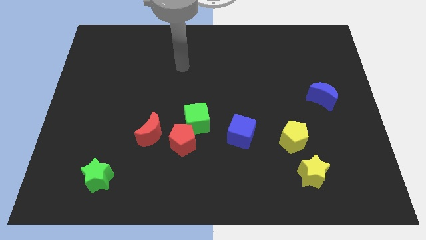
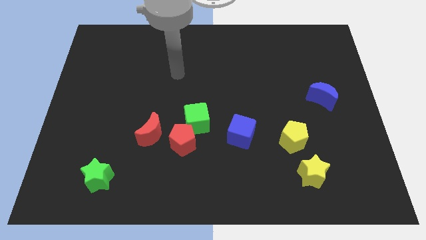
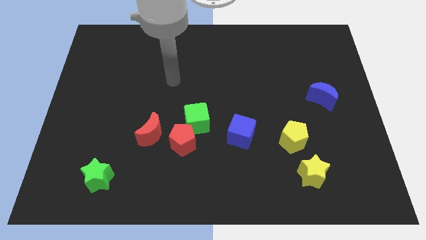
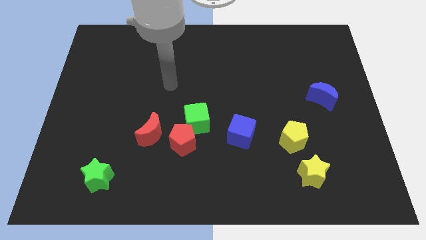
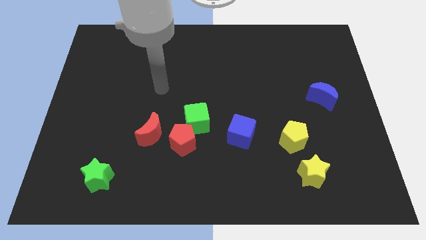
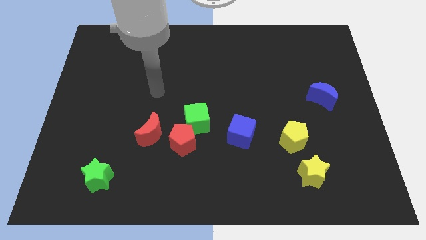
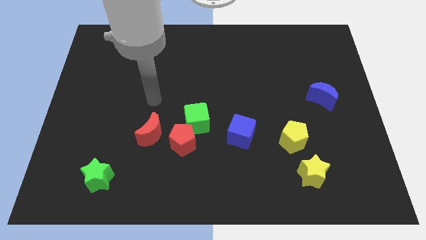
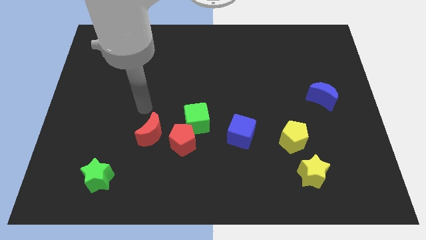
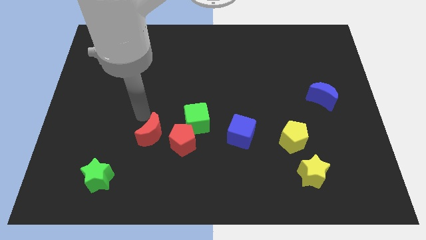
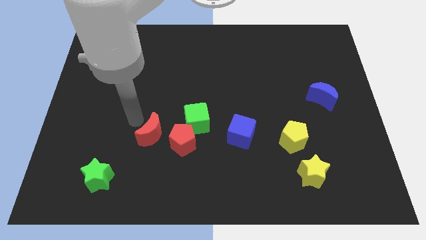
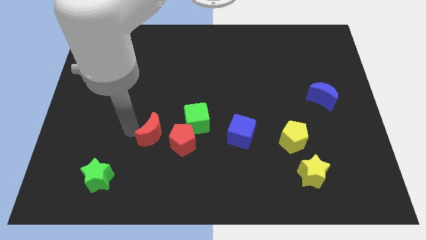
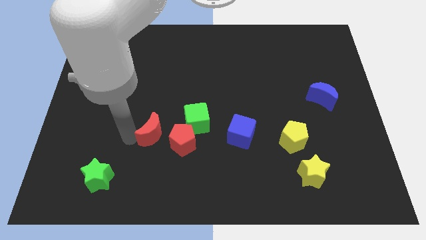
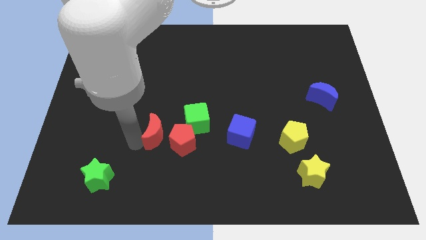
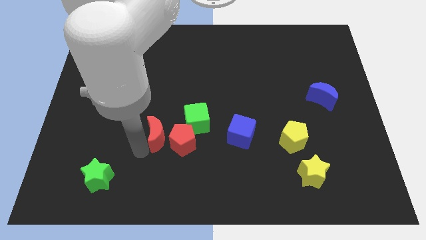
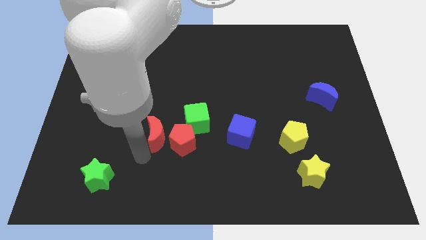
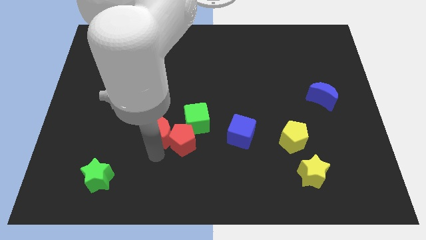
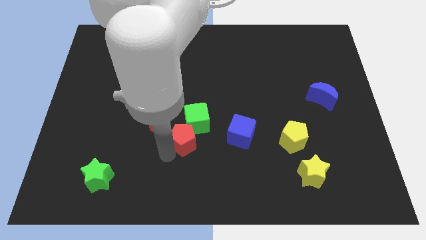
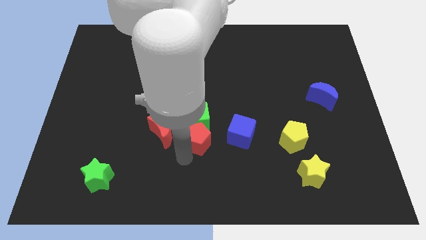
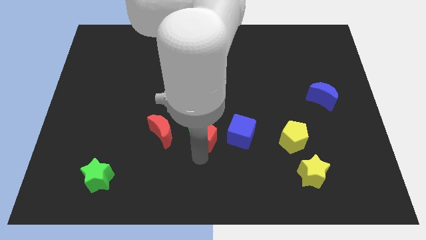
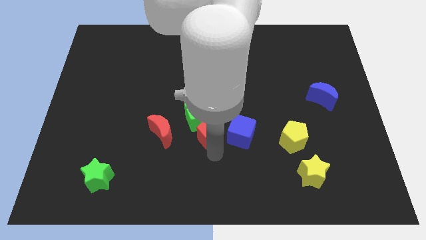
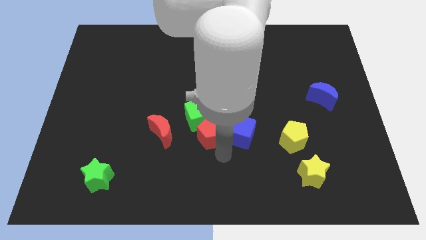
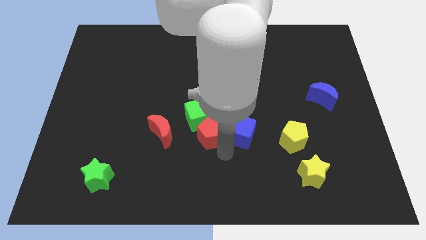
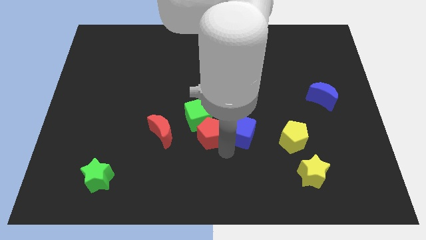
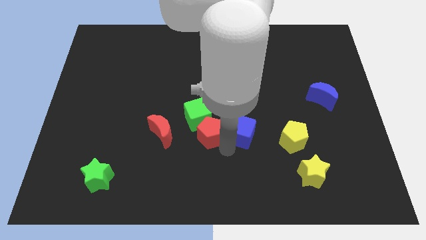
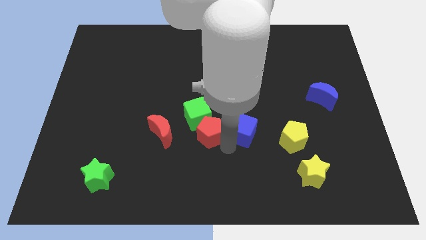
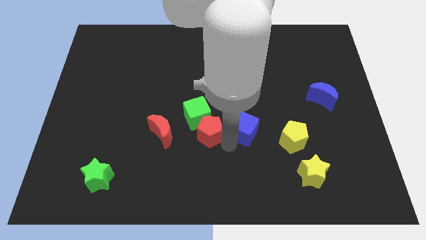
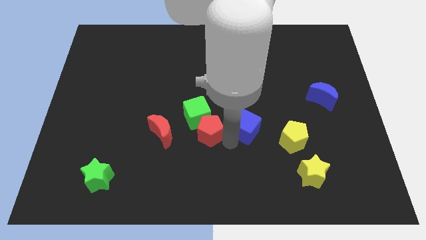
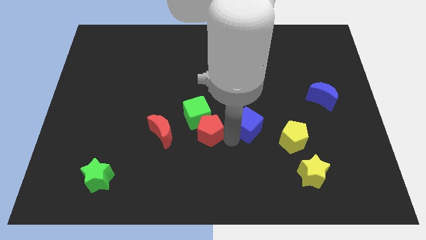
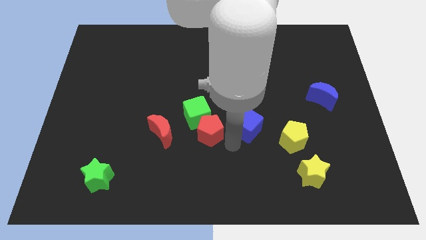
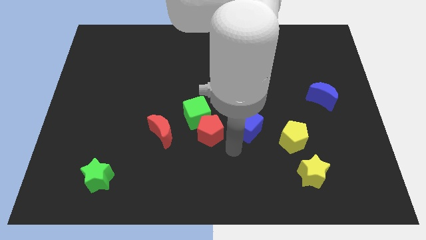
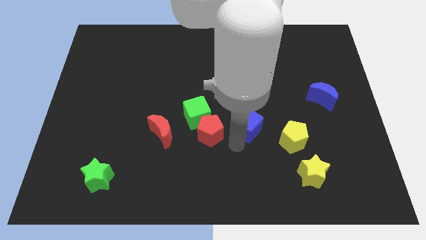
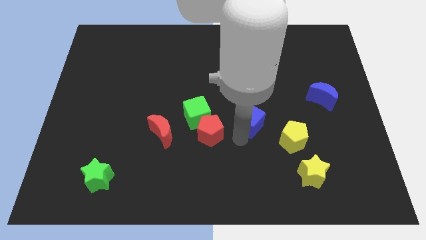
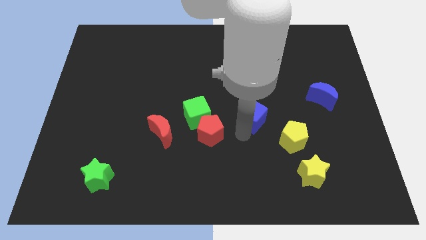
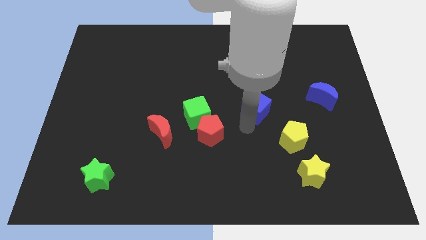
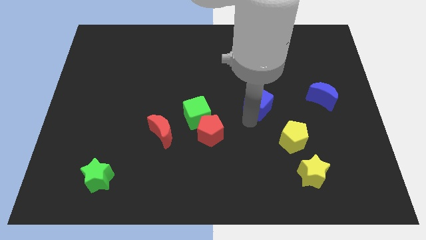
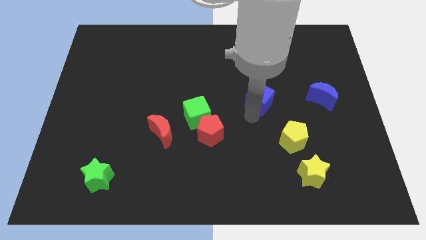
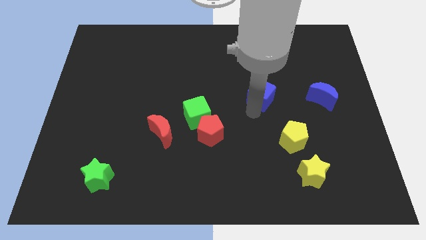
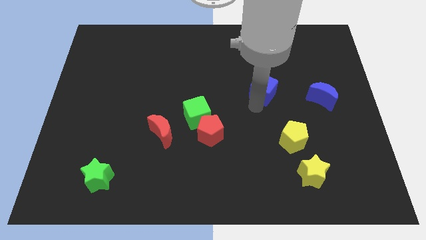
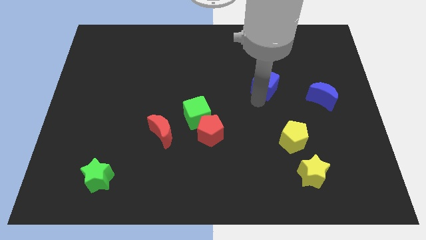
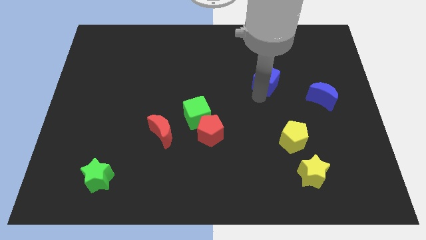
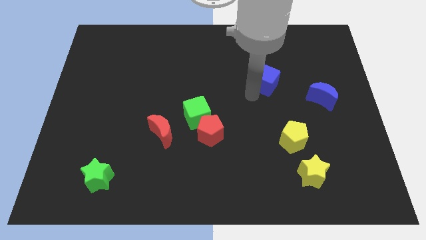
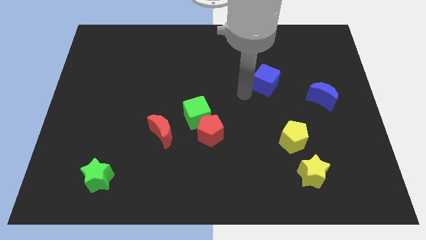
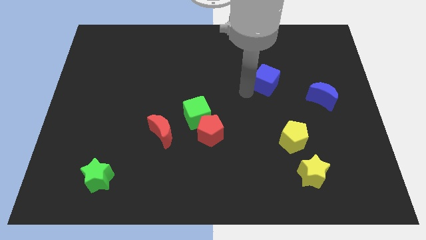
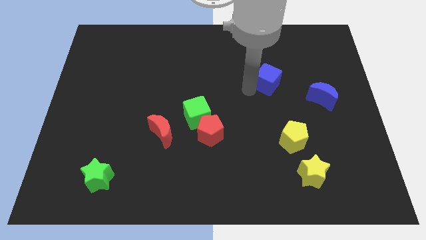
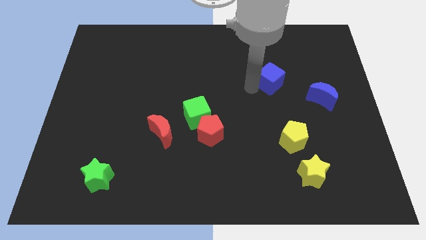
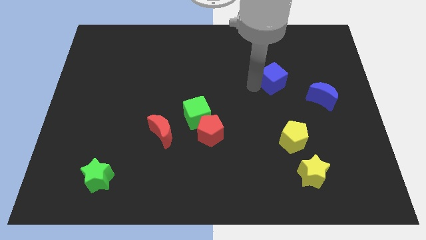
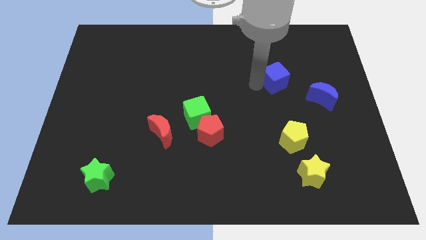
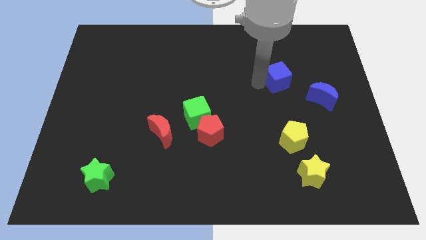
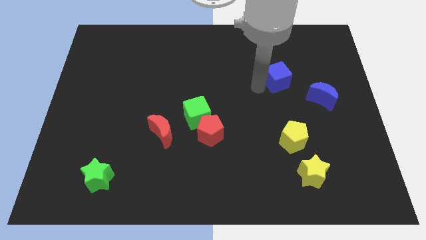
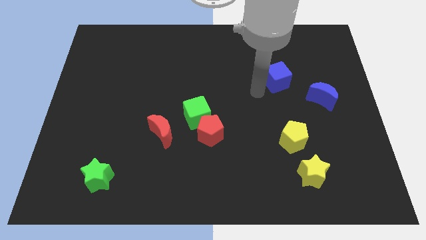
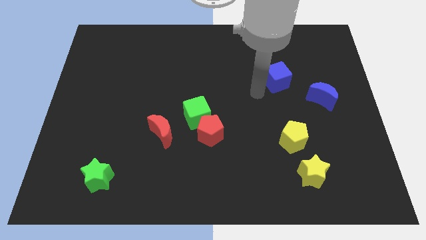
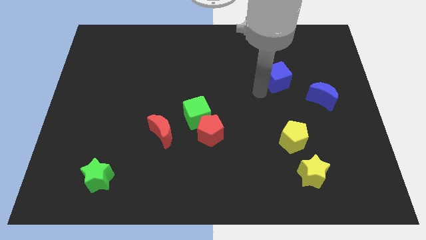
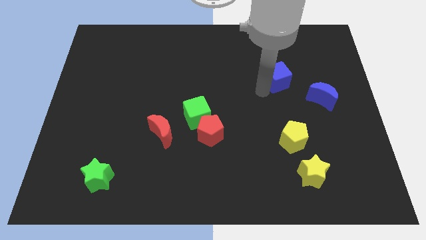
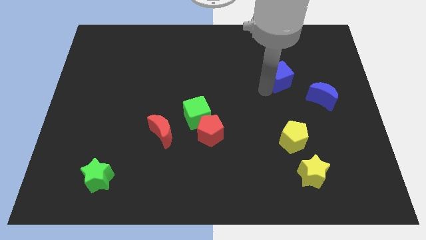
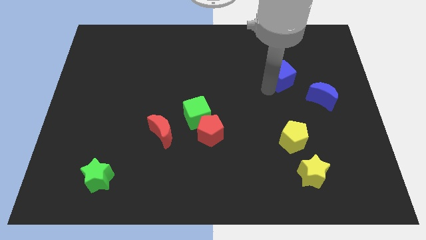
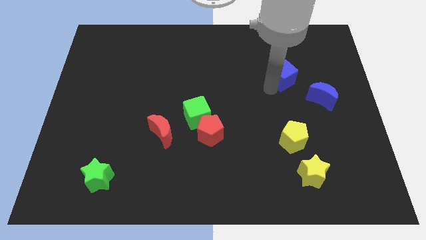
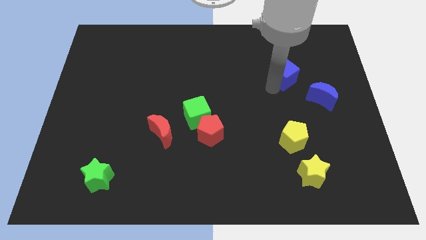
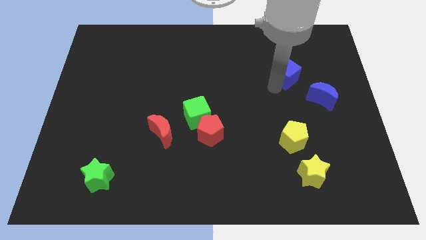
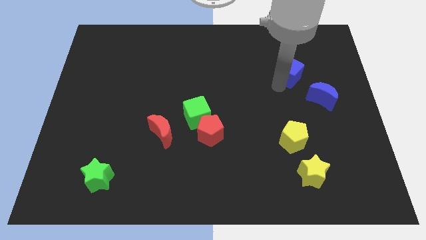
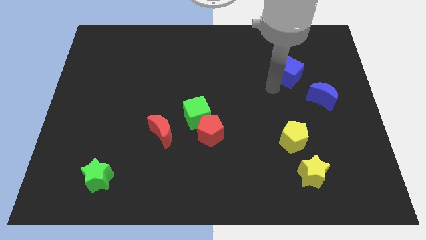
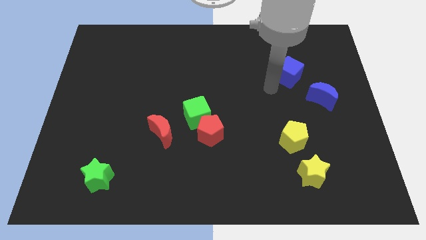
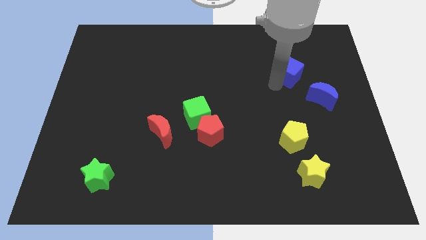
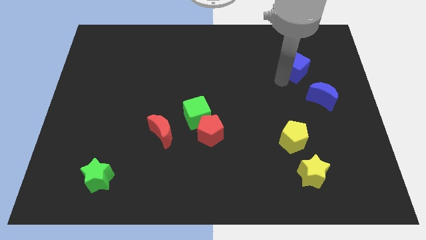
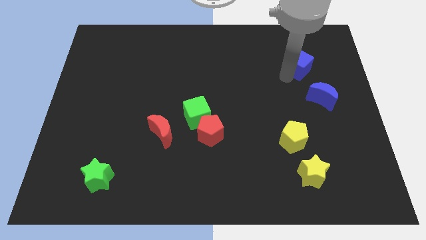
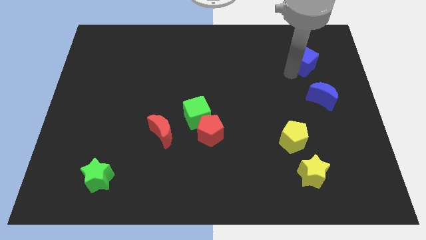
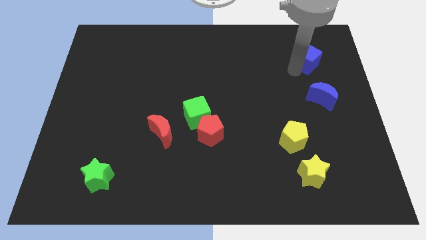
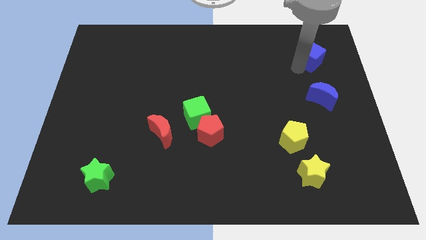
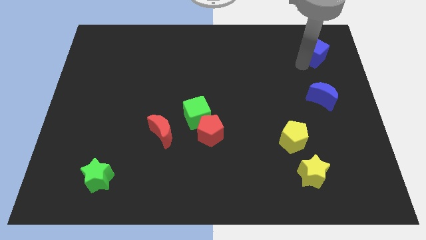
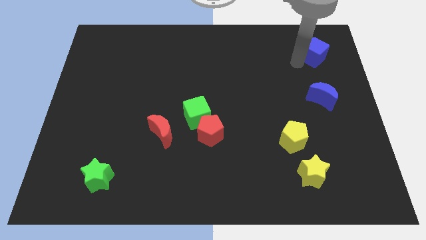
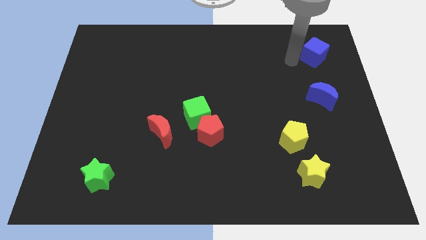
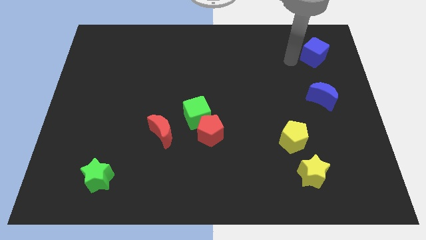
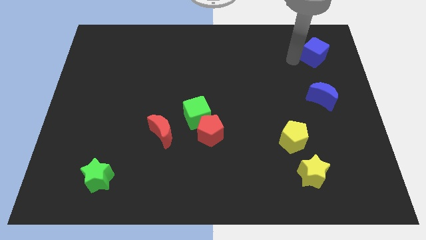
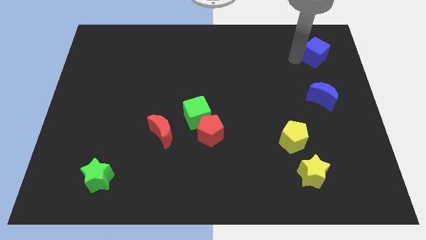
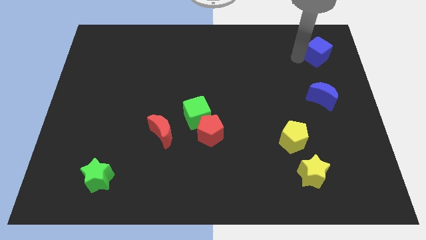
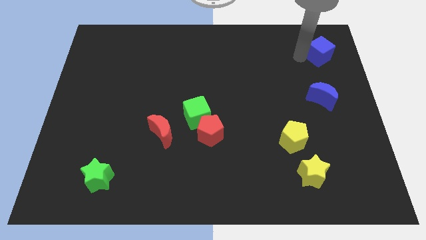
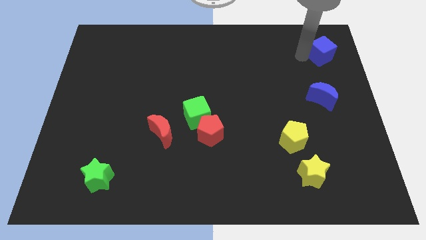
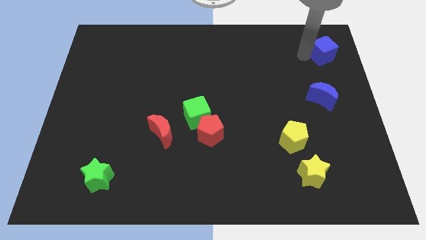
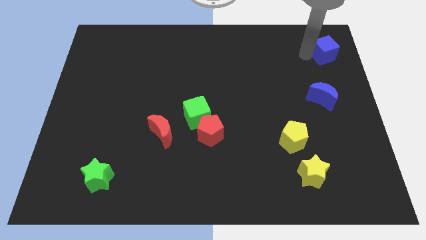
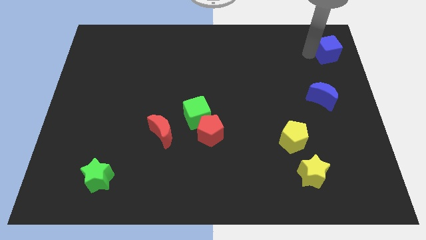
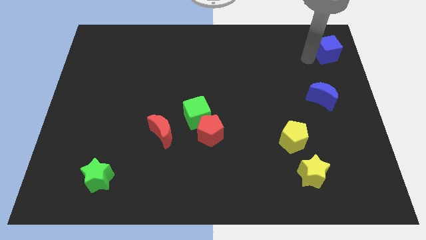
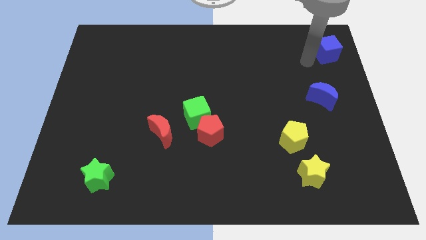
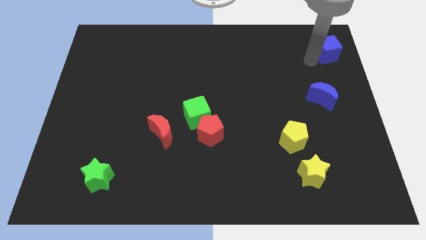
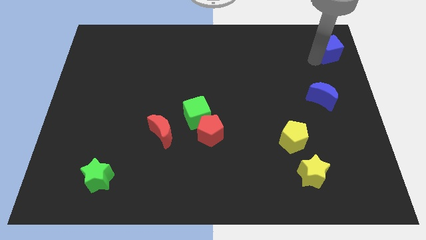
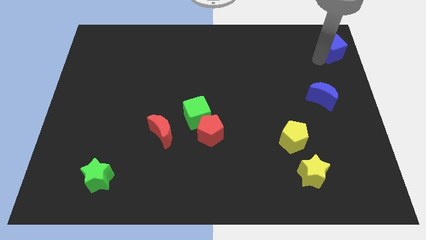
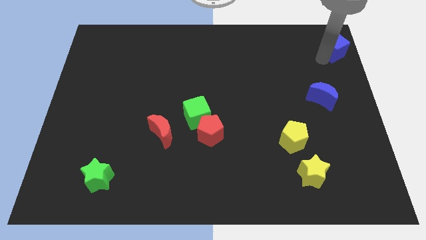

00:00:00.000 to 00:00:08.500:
move the blue cube to the top right of the board
